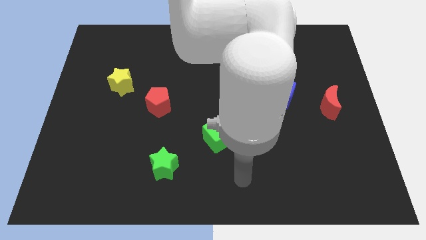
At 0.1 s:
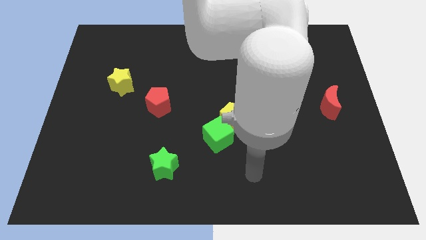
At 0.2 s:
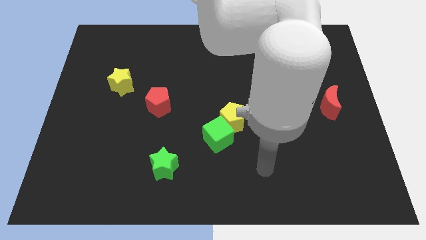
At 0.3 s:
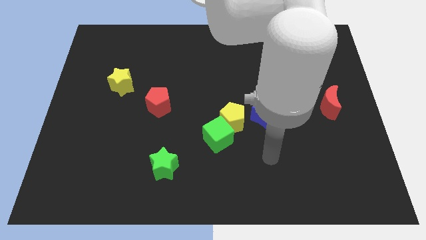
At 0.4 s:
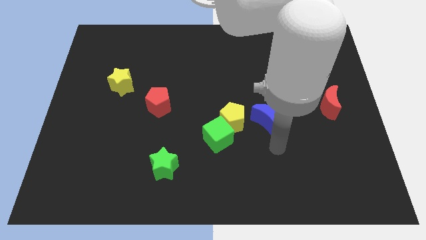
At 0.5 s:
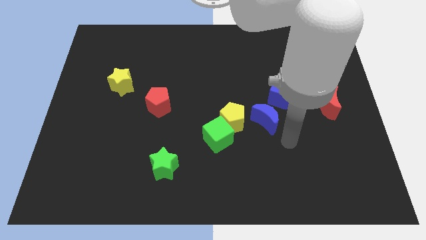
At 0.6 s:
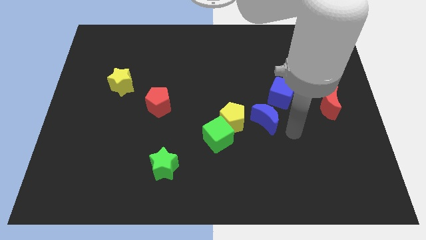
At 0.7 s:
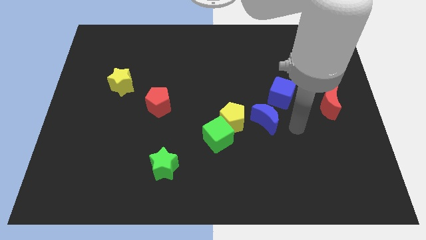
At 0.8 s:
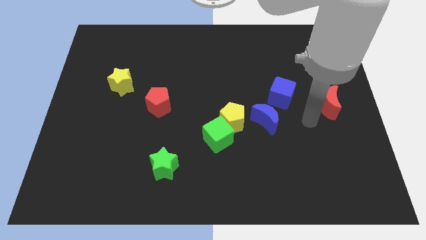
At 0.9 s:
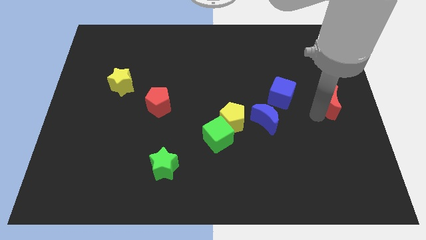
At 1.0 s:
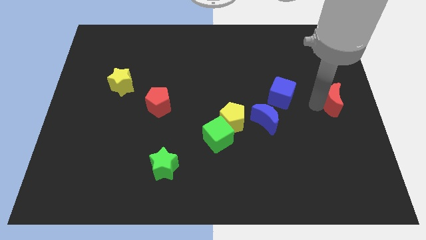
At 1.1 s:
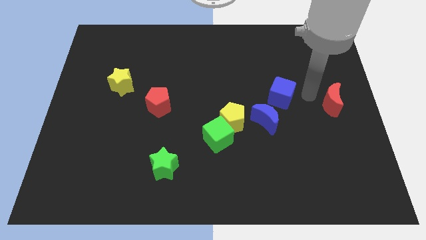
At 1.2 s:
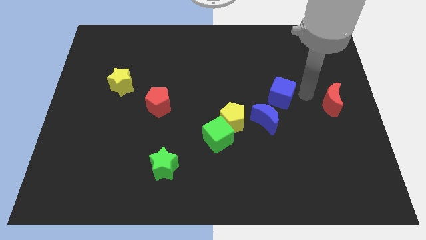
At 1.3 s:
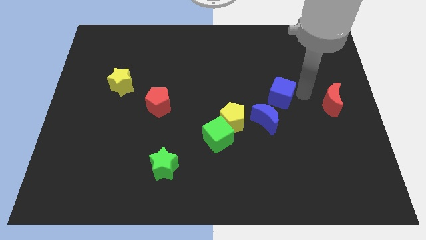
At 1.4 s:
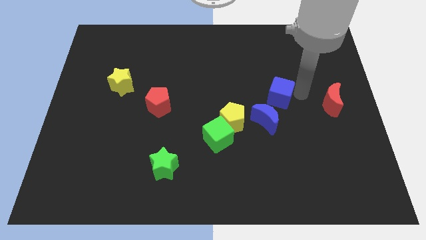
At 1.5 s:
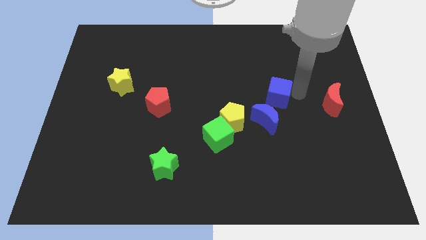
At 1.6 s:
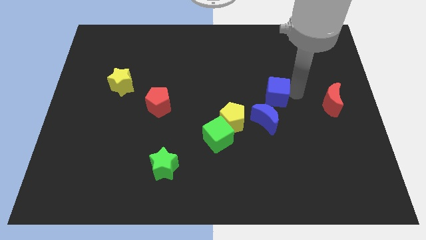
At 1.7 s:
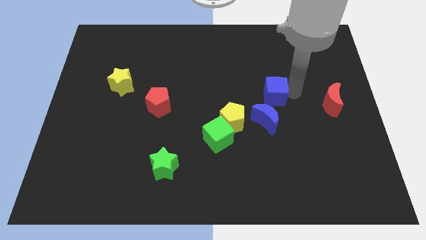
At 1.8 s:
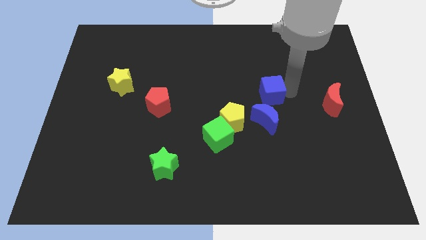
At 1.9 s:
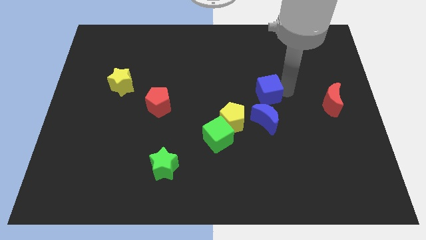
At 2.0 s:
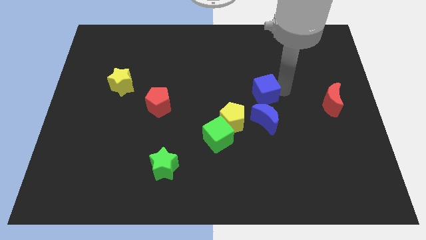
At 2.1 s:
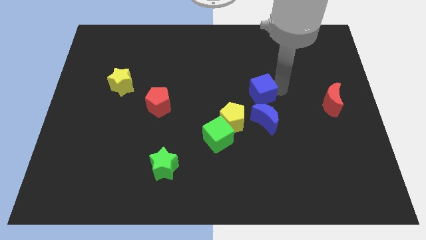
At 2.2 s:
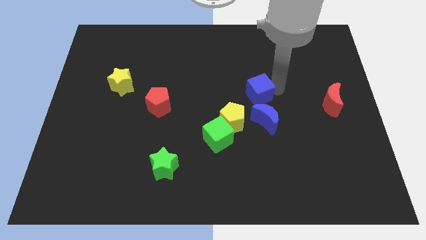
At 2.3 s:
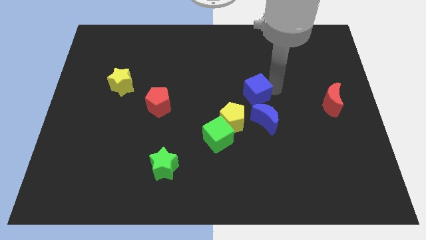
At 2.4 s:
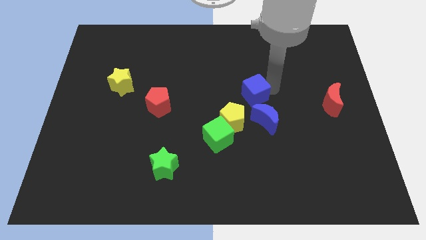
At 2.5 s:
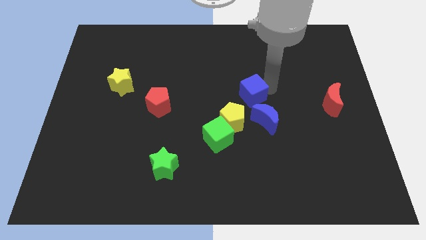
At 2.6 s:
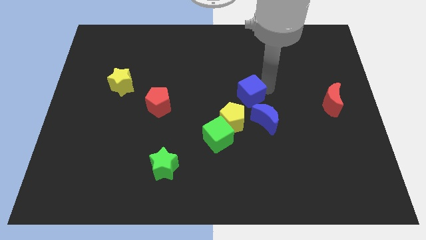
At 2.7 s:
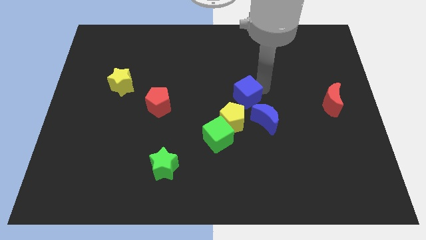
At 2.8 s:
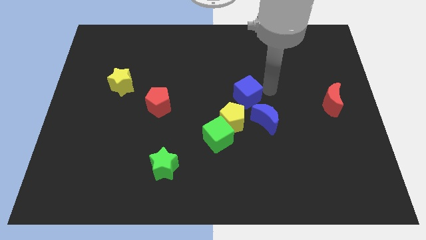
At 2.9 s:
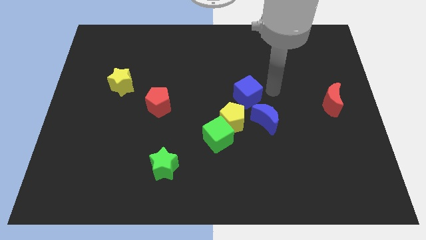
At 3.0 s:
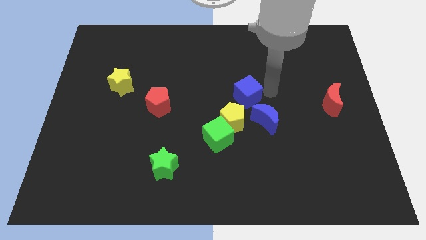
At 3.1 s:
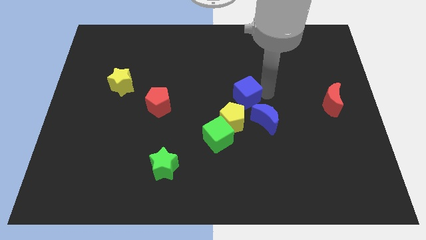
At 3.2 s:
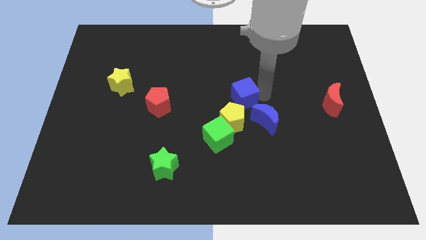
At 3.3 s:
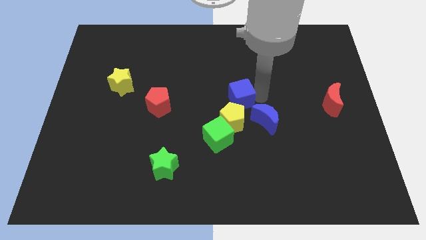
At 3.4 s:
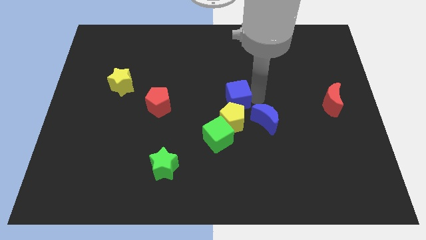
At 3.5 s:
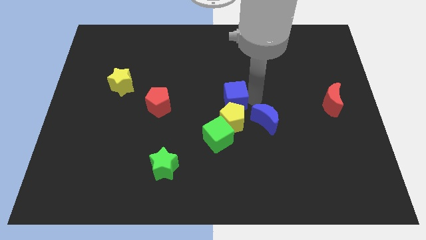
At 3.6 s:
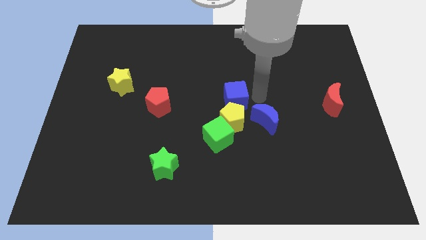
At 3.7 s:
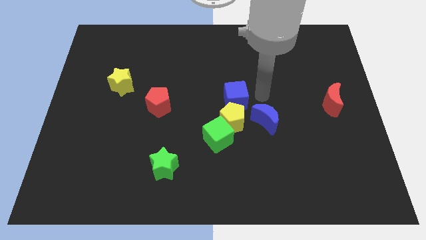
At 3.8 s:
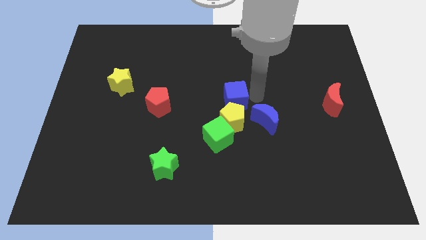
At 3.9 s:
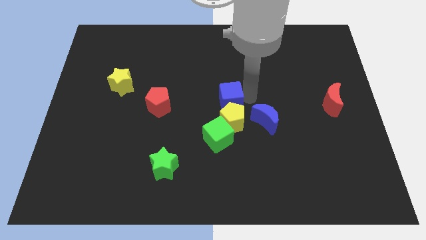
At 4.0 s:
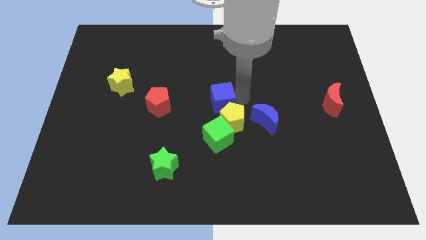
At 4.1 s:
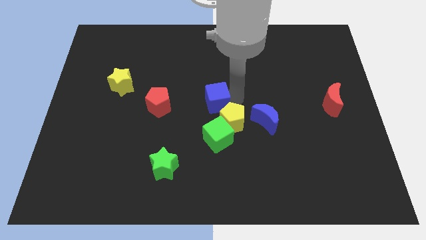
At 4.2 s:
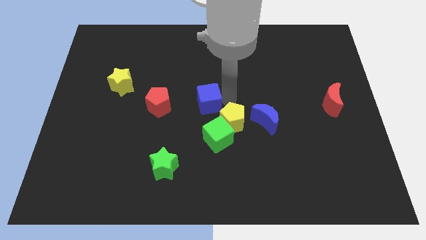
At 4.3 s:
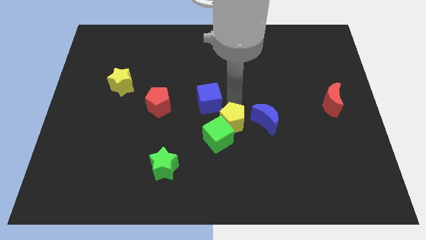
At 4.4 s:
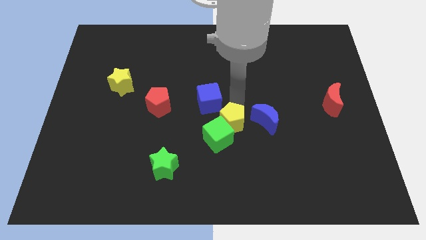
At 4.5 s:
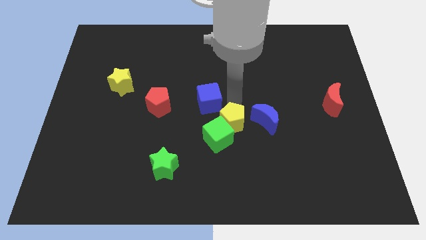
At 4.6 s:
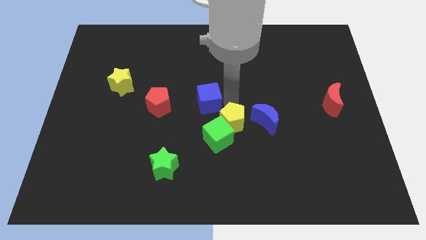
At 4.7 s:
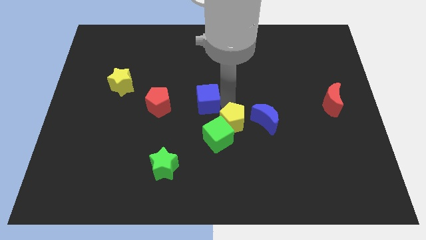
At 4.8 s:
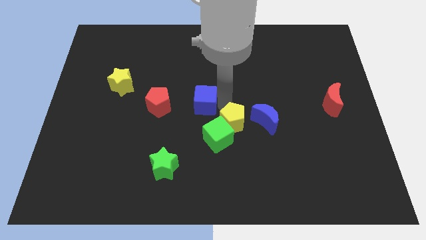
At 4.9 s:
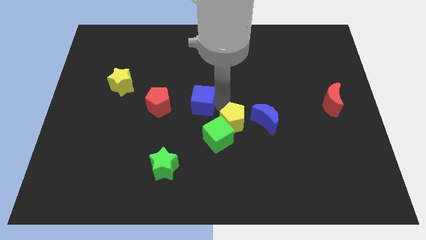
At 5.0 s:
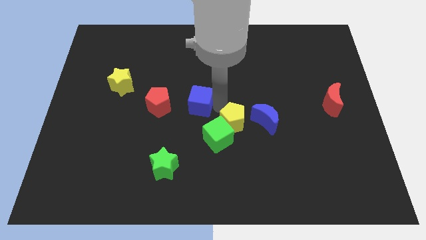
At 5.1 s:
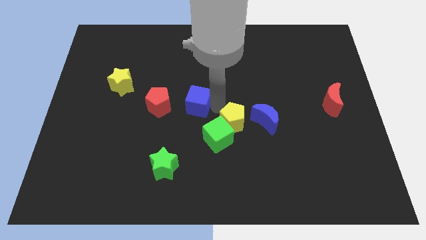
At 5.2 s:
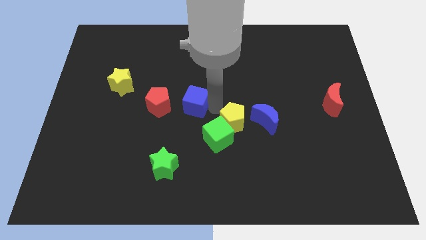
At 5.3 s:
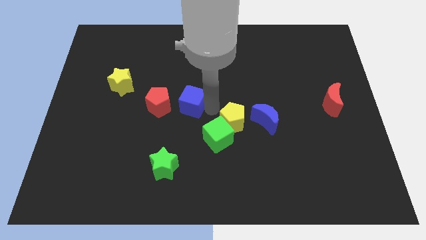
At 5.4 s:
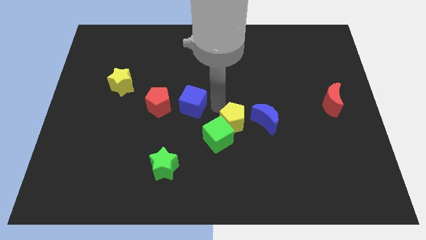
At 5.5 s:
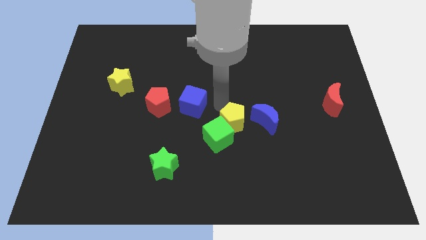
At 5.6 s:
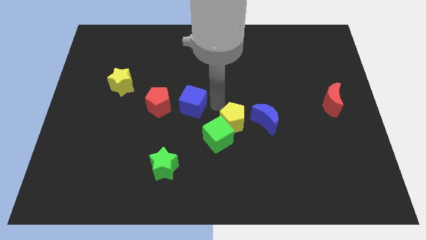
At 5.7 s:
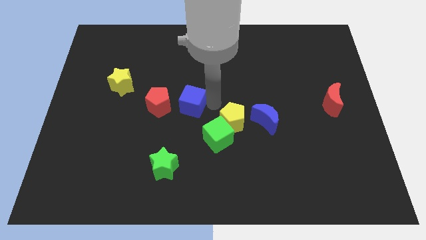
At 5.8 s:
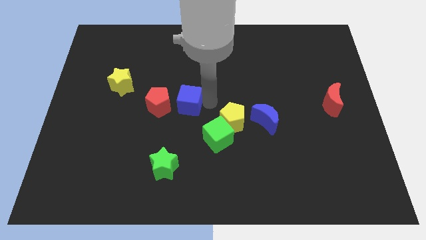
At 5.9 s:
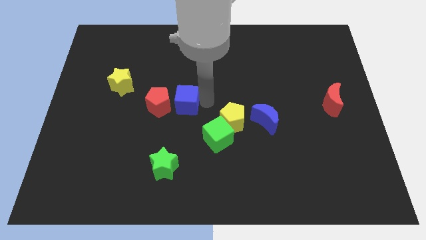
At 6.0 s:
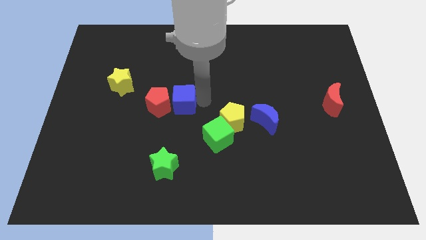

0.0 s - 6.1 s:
slide the blue cube close to the red pentagon

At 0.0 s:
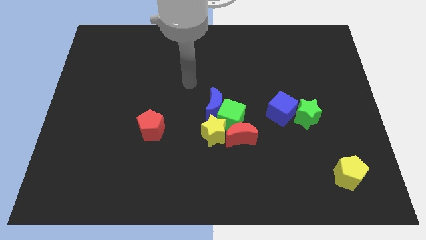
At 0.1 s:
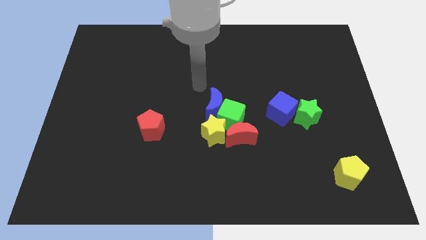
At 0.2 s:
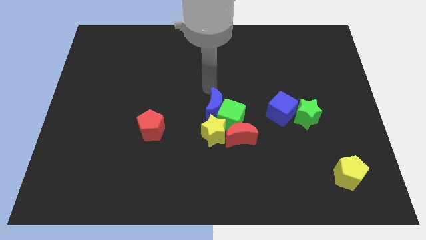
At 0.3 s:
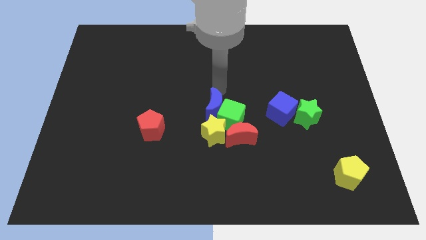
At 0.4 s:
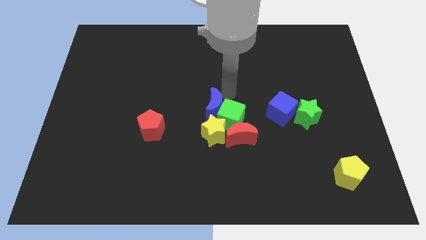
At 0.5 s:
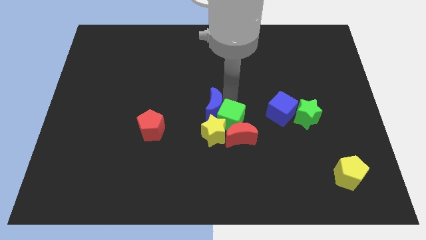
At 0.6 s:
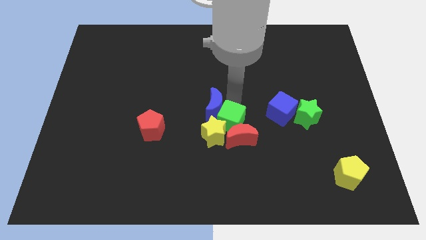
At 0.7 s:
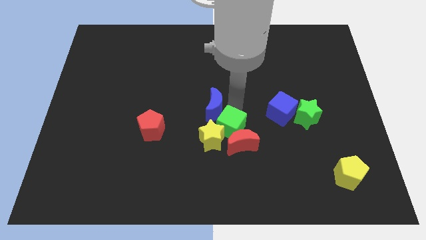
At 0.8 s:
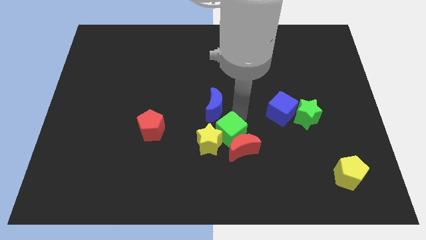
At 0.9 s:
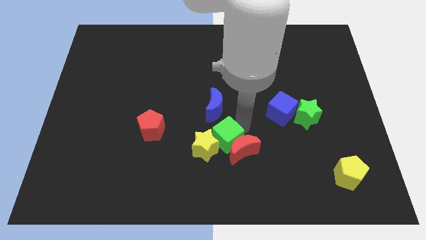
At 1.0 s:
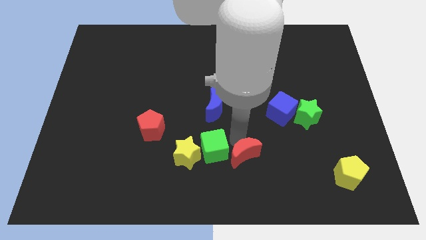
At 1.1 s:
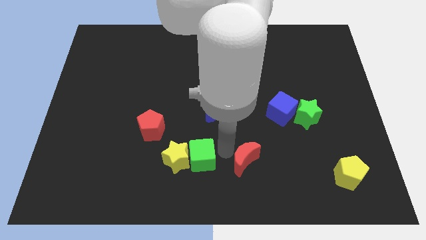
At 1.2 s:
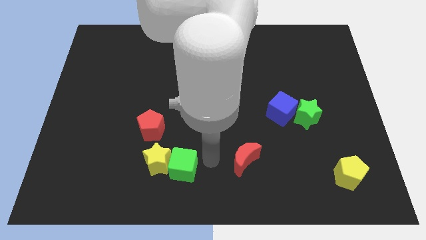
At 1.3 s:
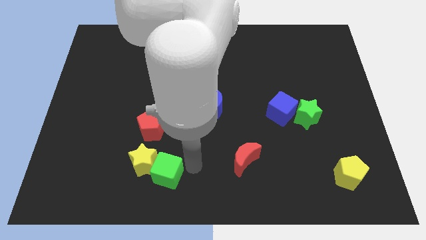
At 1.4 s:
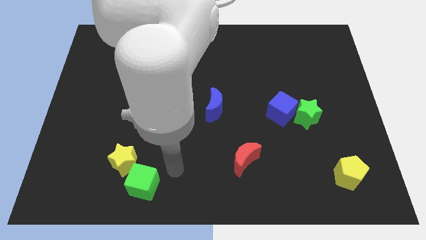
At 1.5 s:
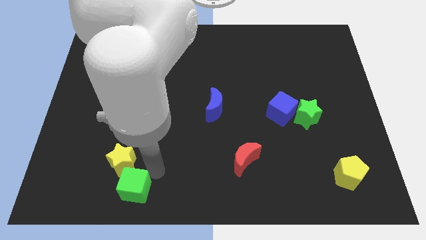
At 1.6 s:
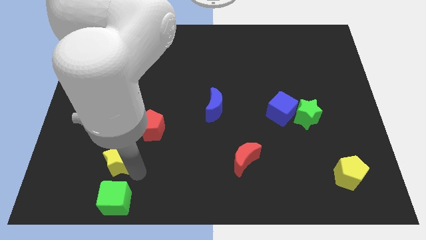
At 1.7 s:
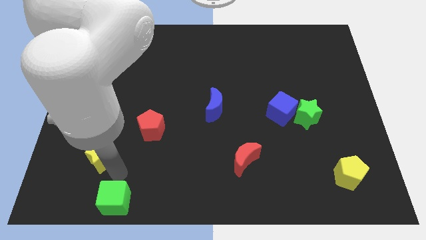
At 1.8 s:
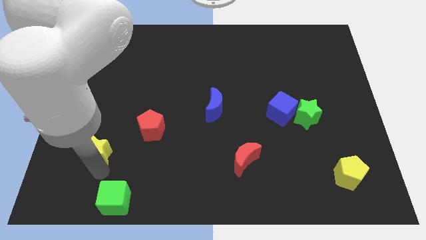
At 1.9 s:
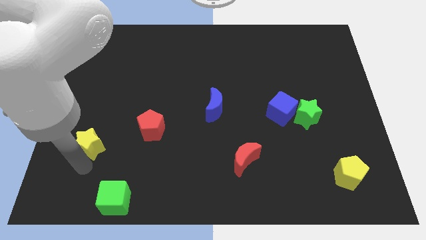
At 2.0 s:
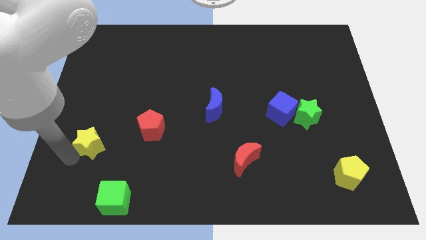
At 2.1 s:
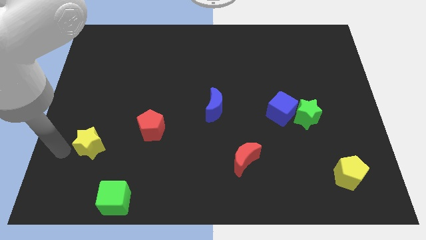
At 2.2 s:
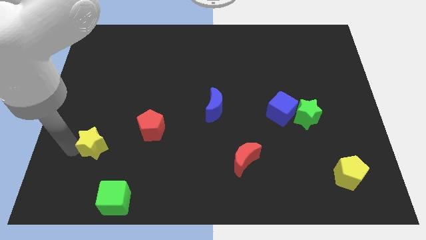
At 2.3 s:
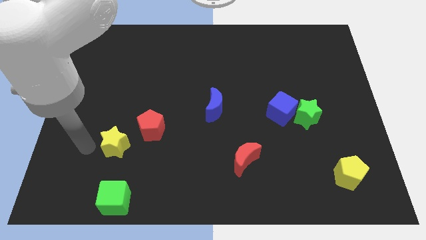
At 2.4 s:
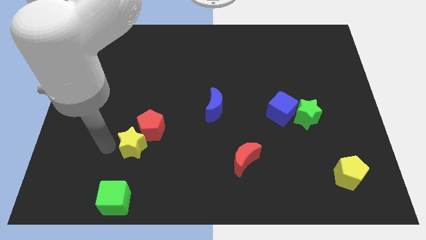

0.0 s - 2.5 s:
move the yellow star next to the red pentagon
